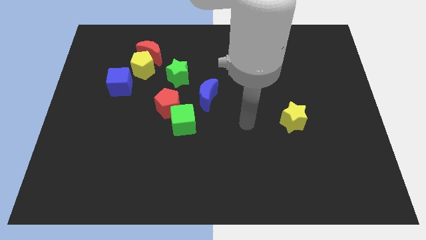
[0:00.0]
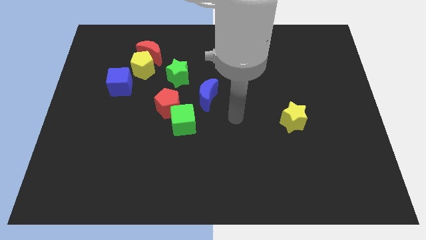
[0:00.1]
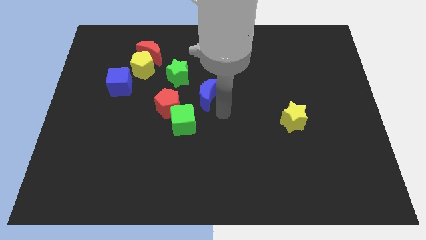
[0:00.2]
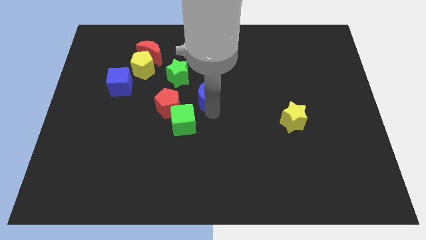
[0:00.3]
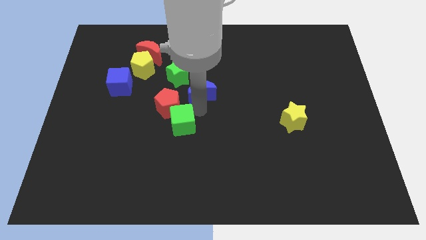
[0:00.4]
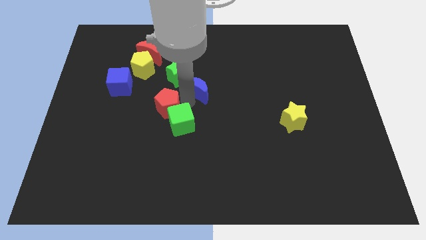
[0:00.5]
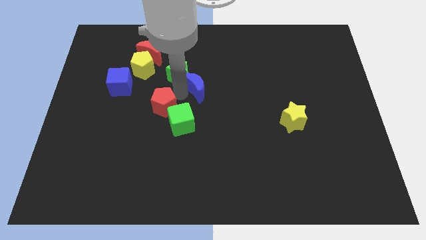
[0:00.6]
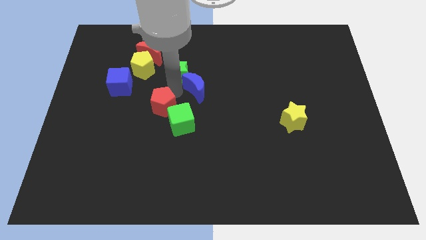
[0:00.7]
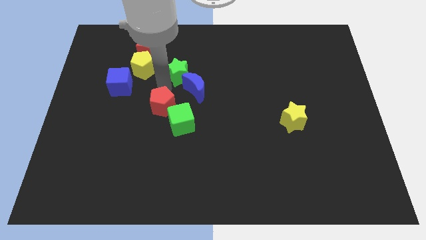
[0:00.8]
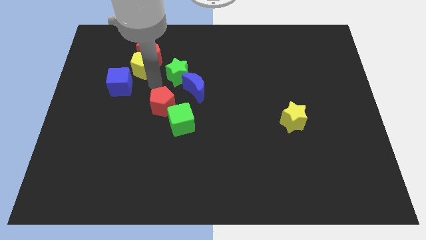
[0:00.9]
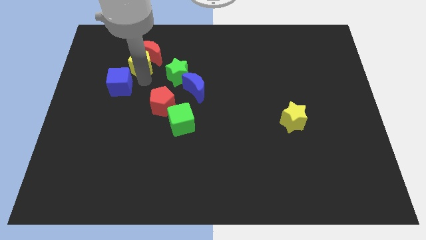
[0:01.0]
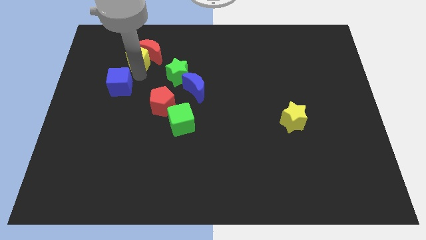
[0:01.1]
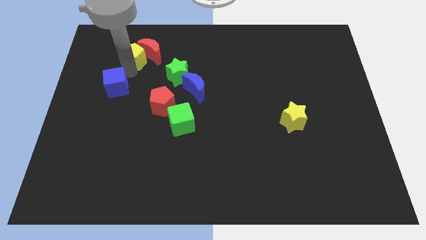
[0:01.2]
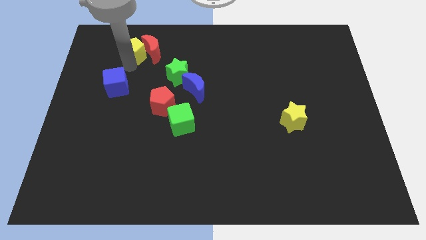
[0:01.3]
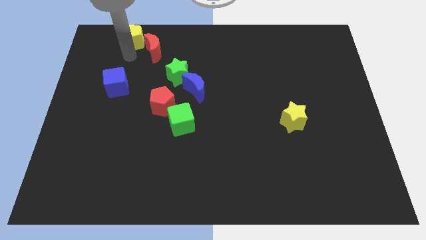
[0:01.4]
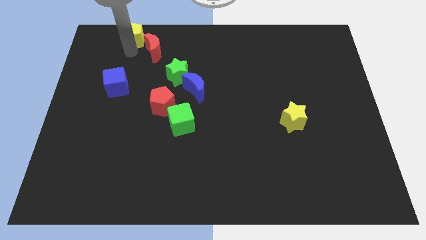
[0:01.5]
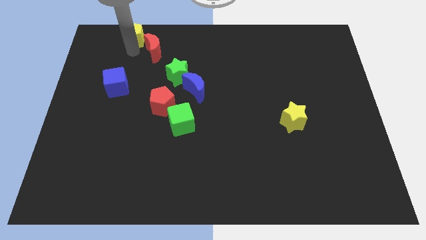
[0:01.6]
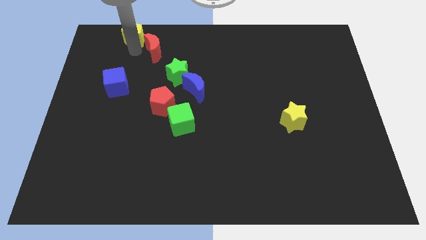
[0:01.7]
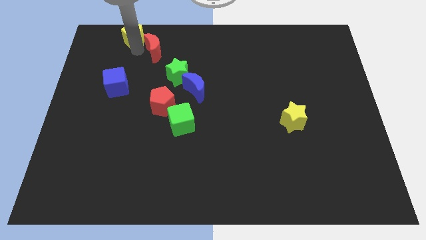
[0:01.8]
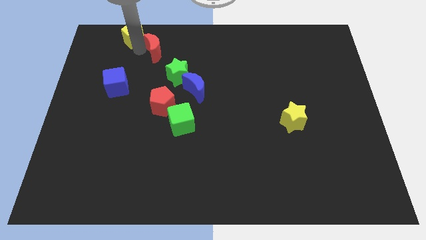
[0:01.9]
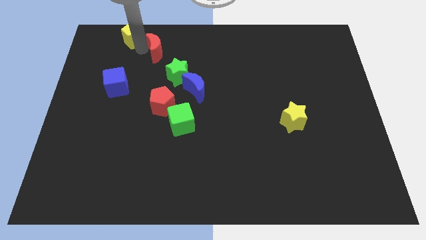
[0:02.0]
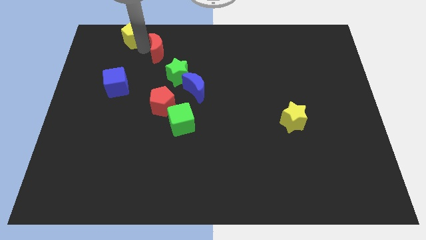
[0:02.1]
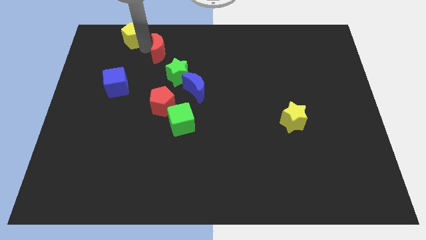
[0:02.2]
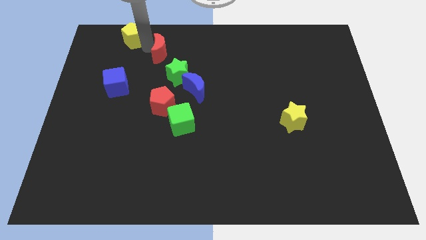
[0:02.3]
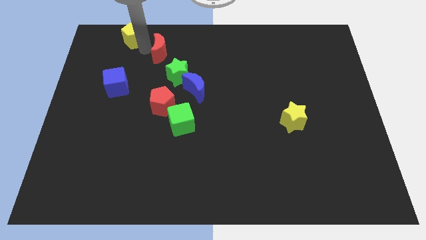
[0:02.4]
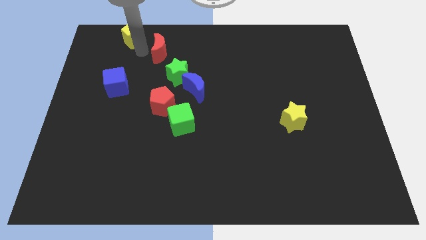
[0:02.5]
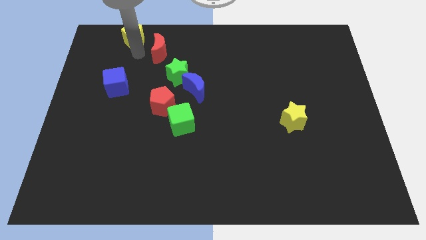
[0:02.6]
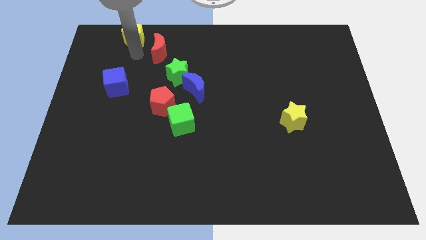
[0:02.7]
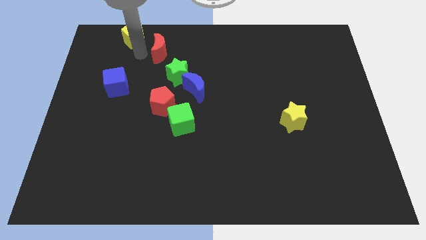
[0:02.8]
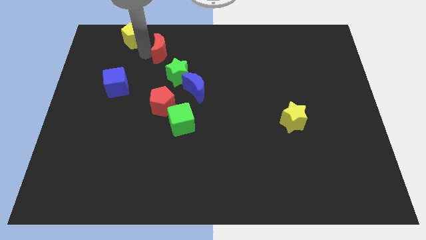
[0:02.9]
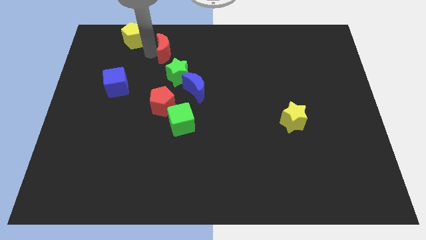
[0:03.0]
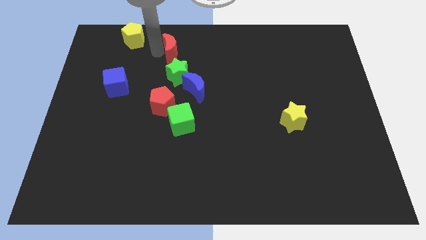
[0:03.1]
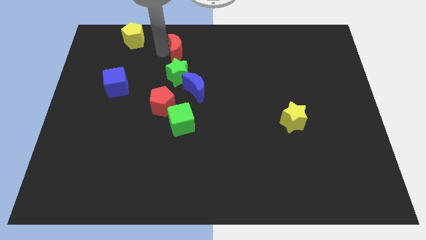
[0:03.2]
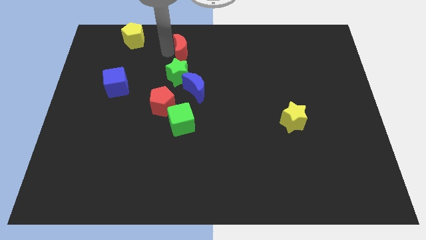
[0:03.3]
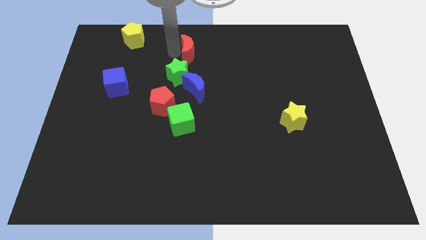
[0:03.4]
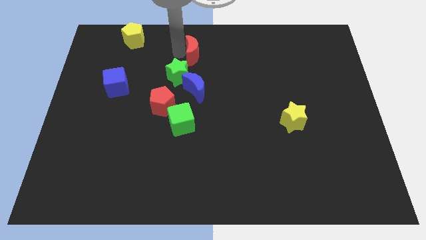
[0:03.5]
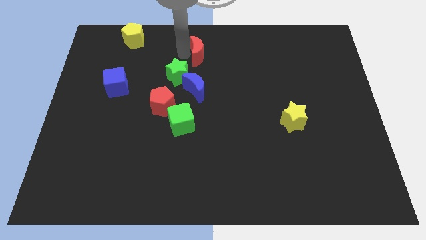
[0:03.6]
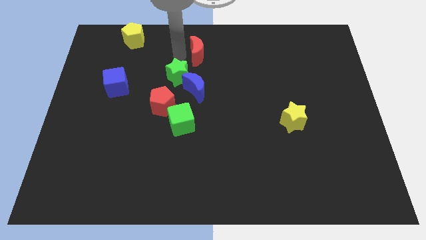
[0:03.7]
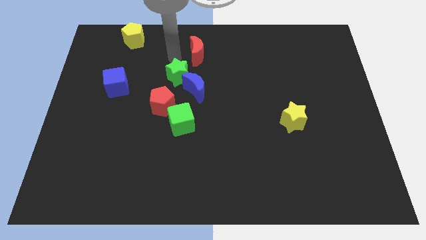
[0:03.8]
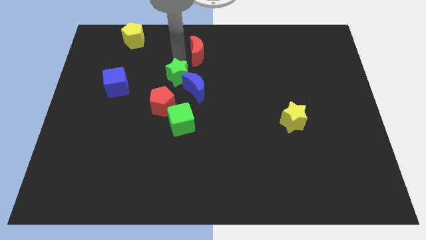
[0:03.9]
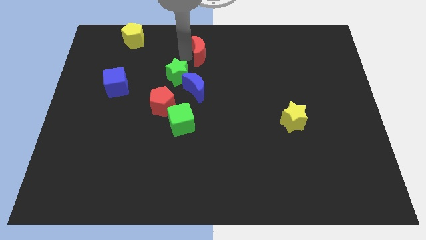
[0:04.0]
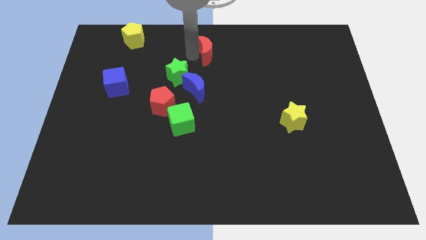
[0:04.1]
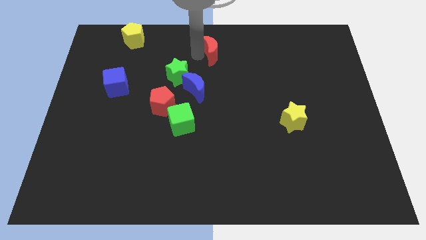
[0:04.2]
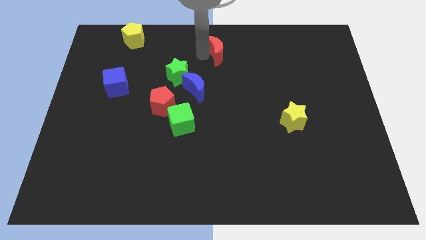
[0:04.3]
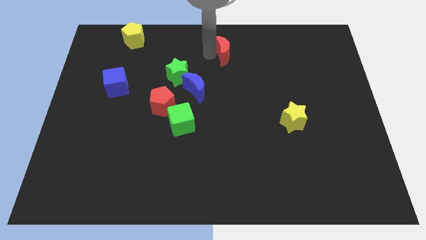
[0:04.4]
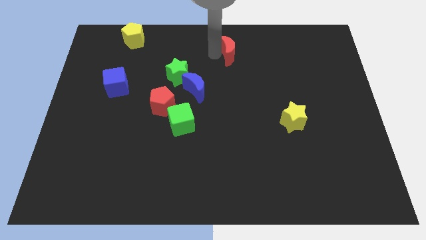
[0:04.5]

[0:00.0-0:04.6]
move the red moon right

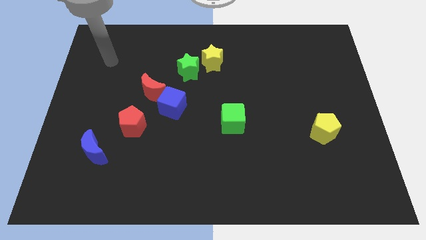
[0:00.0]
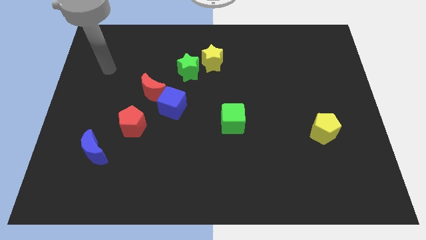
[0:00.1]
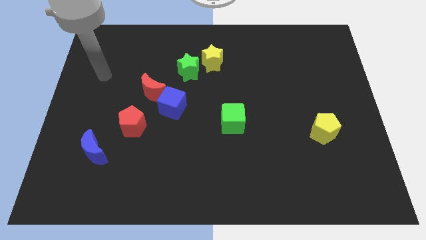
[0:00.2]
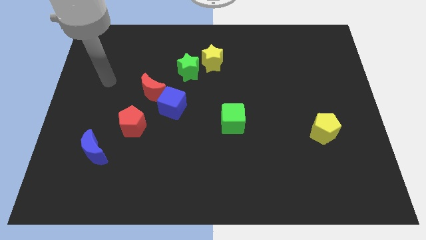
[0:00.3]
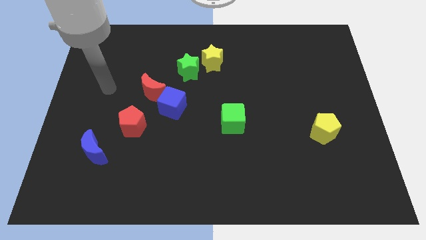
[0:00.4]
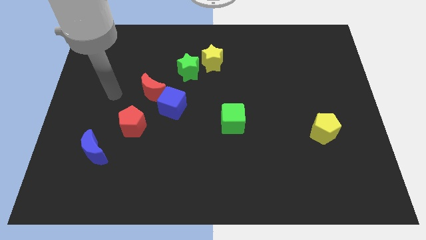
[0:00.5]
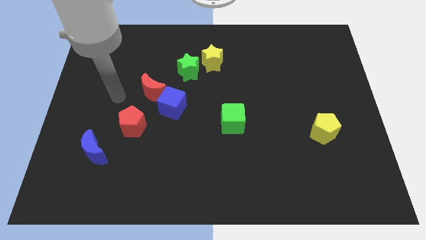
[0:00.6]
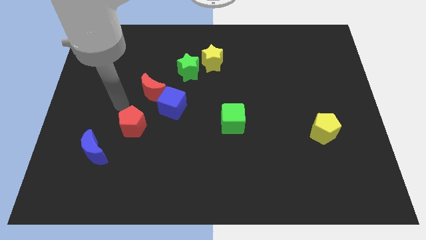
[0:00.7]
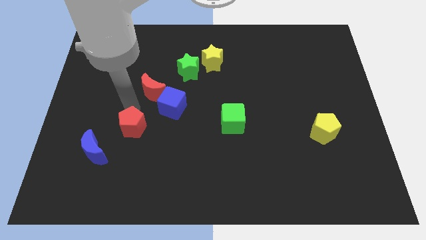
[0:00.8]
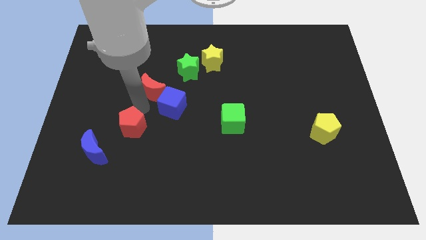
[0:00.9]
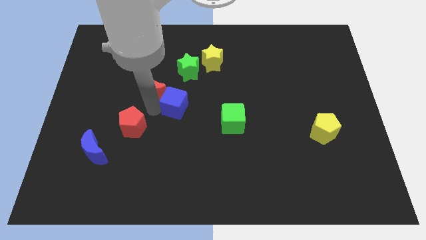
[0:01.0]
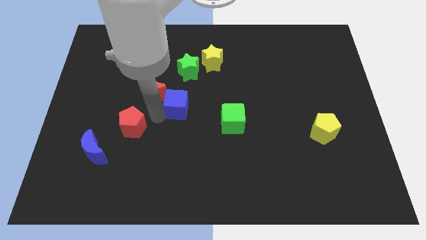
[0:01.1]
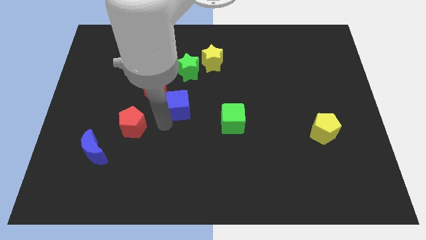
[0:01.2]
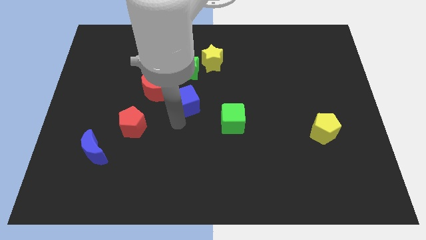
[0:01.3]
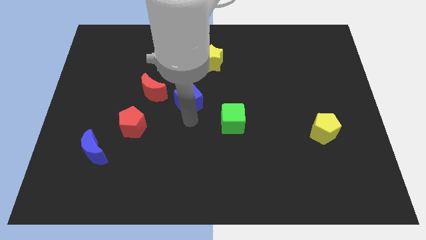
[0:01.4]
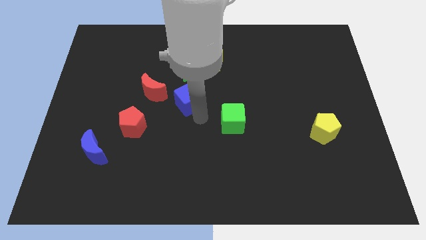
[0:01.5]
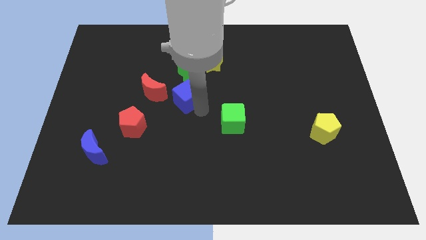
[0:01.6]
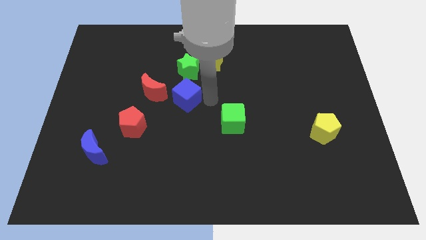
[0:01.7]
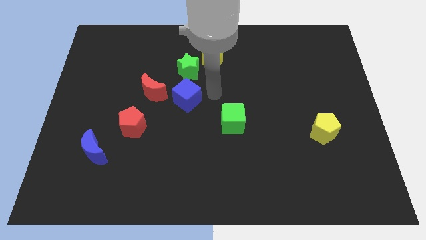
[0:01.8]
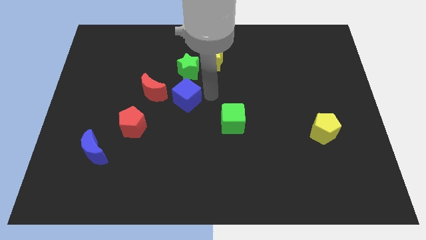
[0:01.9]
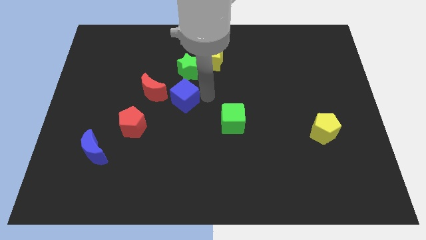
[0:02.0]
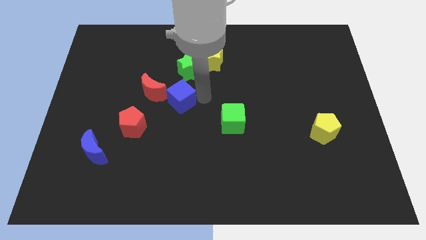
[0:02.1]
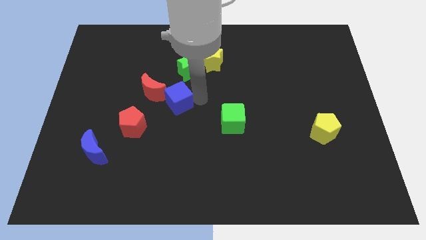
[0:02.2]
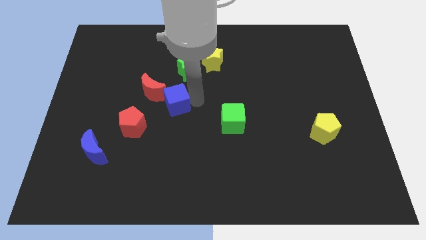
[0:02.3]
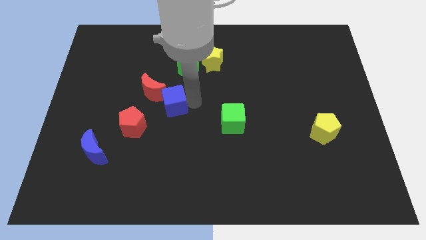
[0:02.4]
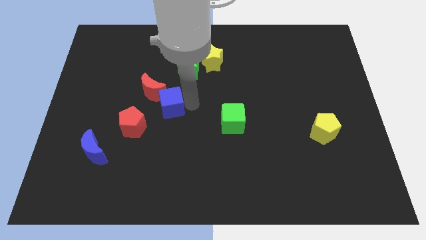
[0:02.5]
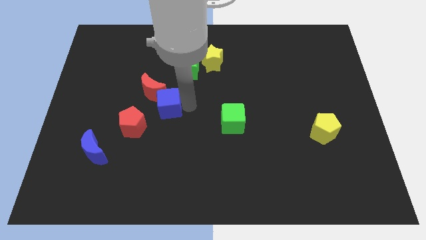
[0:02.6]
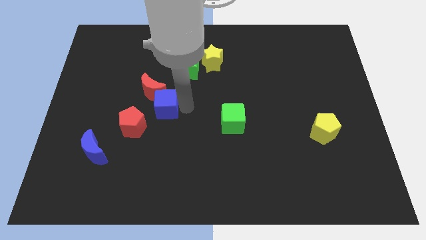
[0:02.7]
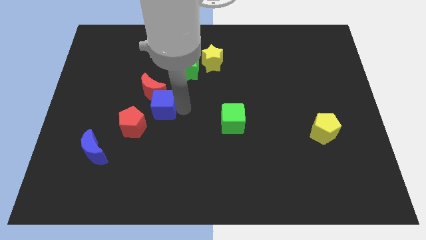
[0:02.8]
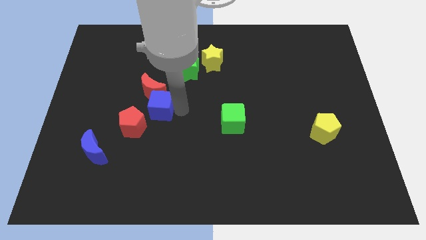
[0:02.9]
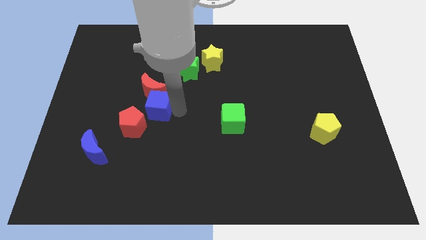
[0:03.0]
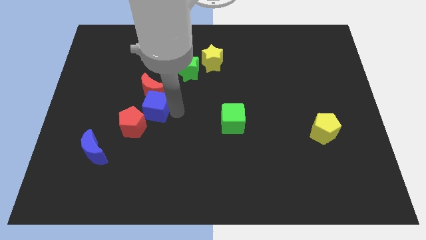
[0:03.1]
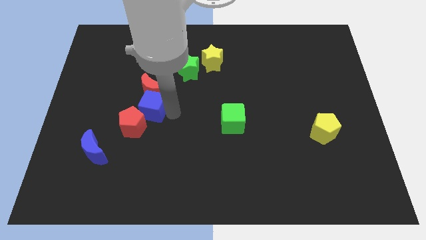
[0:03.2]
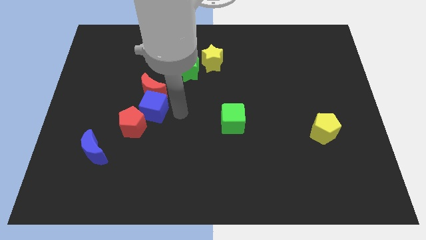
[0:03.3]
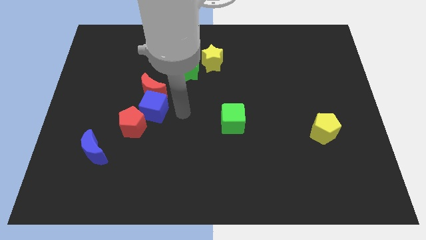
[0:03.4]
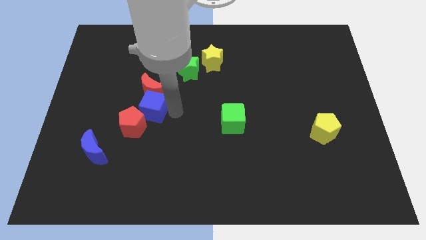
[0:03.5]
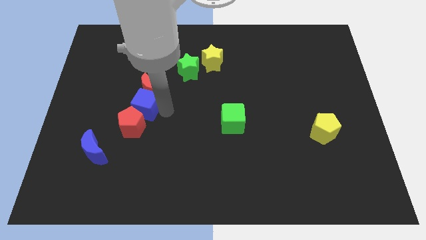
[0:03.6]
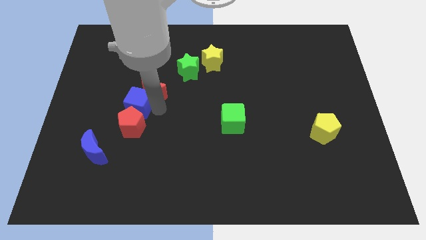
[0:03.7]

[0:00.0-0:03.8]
slightly move the blue cube left
